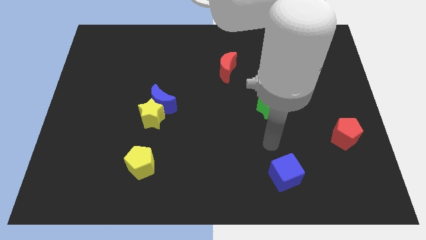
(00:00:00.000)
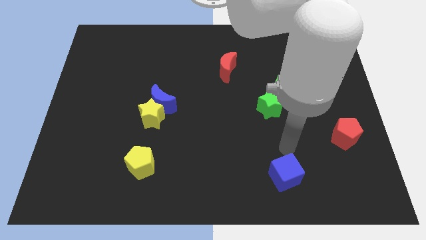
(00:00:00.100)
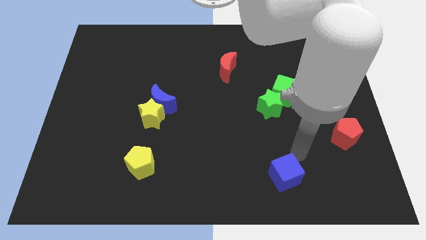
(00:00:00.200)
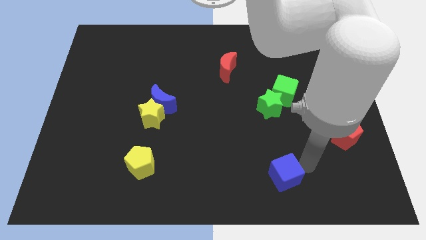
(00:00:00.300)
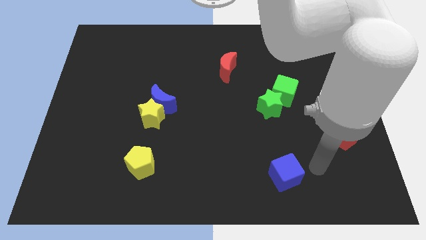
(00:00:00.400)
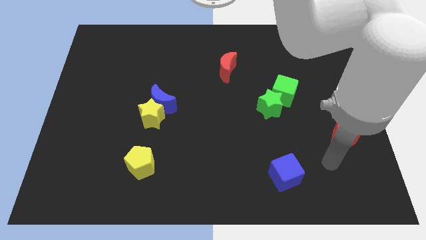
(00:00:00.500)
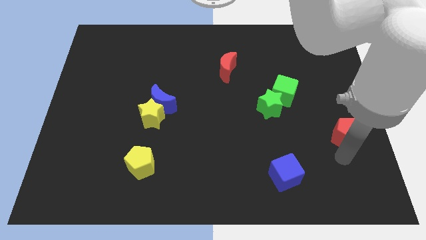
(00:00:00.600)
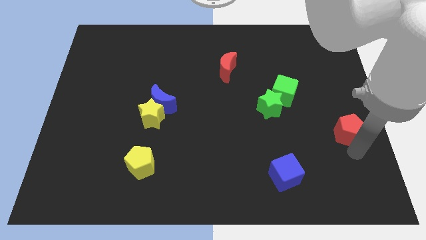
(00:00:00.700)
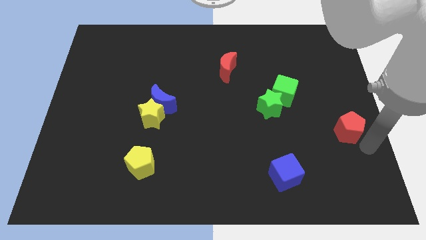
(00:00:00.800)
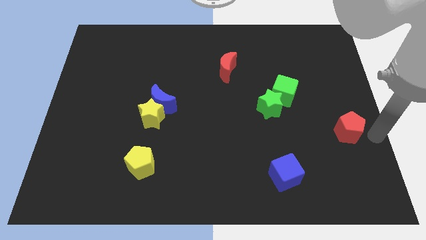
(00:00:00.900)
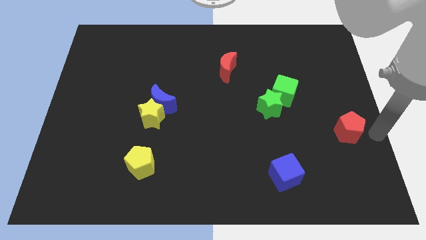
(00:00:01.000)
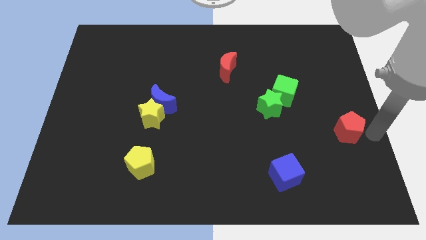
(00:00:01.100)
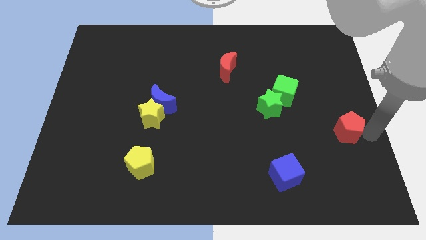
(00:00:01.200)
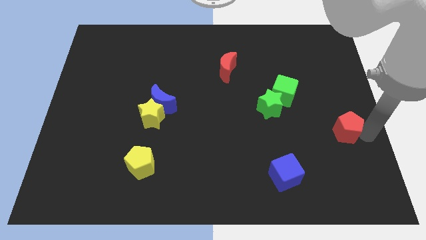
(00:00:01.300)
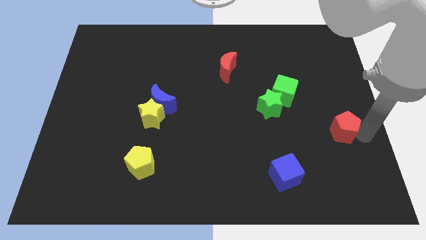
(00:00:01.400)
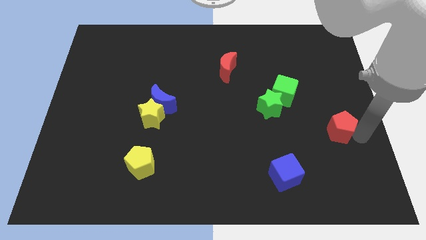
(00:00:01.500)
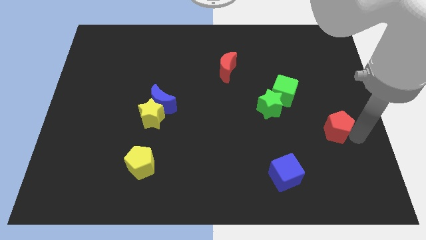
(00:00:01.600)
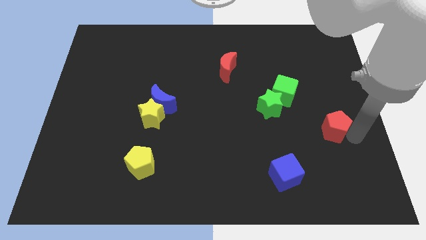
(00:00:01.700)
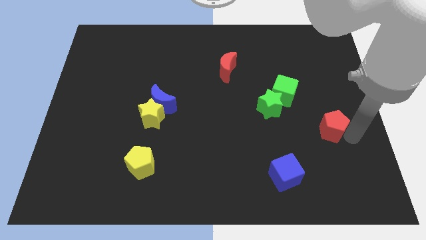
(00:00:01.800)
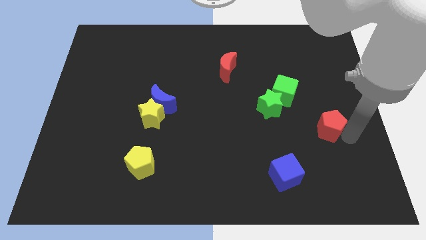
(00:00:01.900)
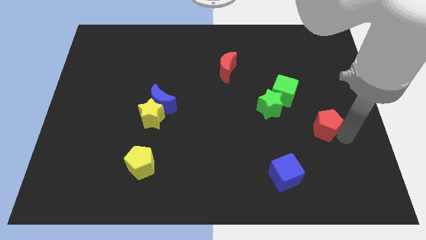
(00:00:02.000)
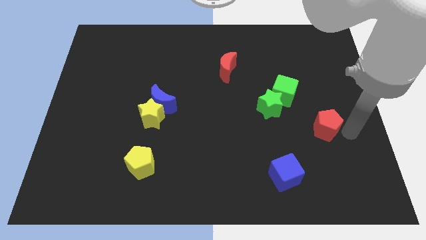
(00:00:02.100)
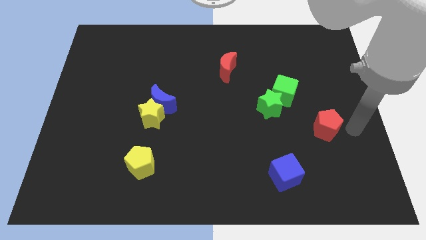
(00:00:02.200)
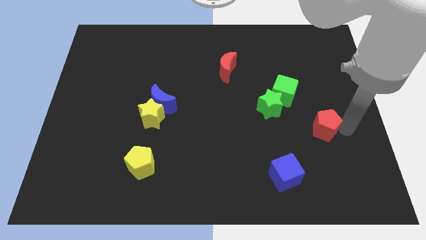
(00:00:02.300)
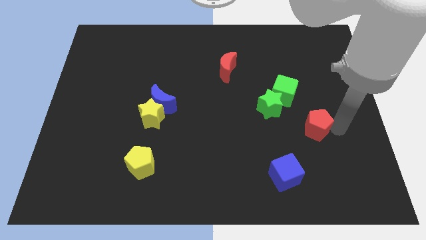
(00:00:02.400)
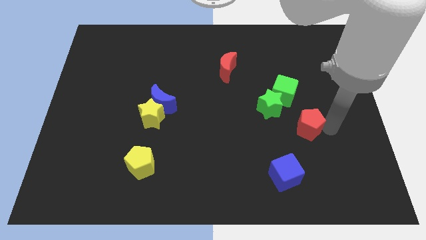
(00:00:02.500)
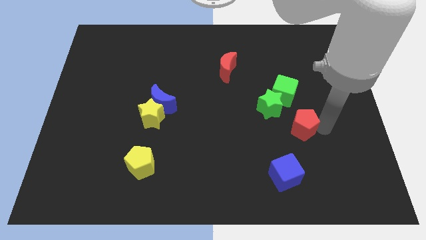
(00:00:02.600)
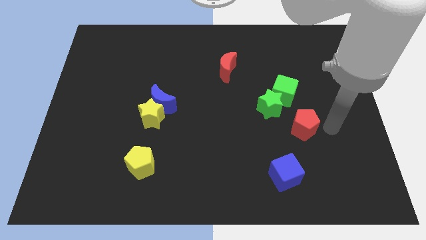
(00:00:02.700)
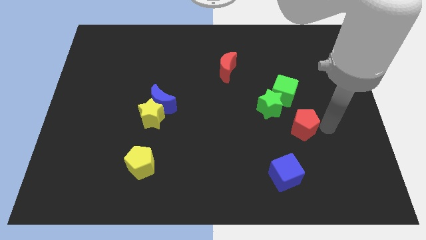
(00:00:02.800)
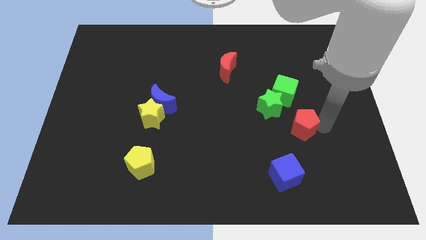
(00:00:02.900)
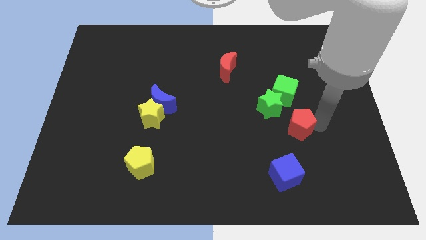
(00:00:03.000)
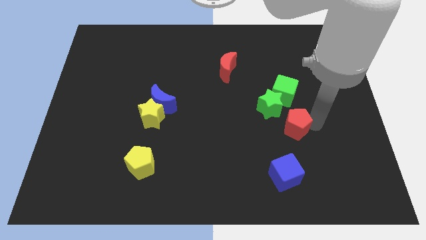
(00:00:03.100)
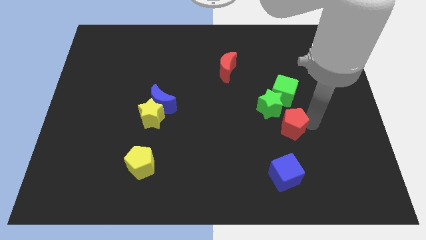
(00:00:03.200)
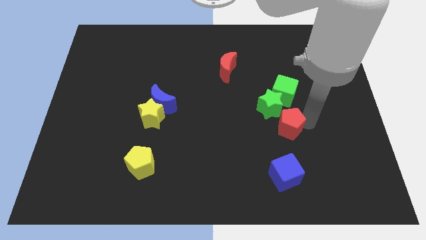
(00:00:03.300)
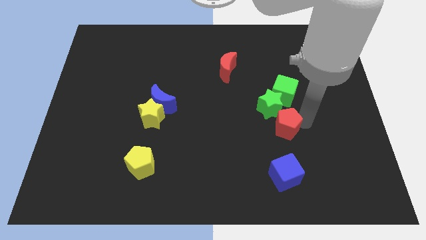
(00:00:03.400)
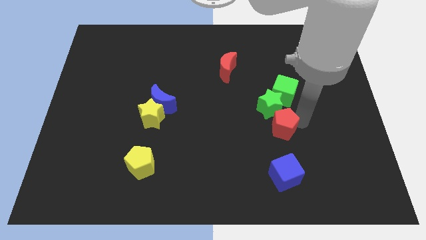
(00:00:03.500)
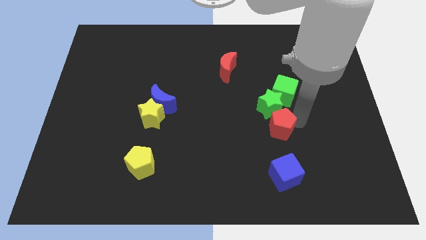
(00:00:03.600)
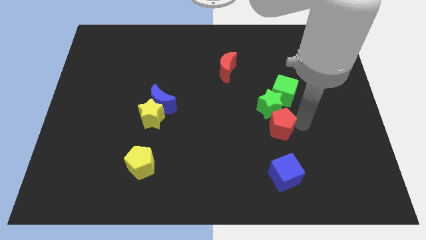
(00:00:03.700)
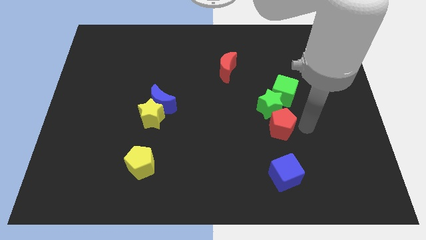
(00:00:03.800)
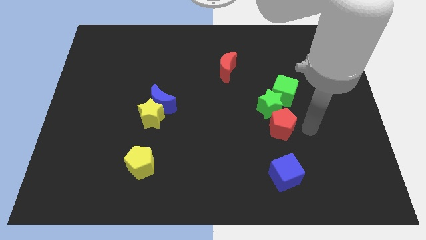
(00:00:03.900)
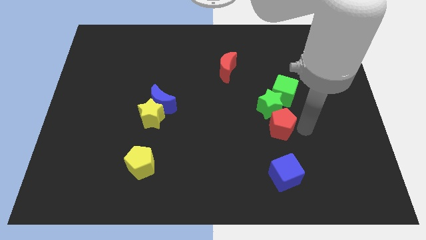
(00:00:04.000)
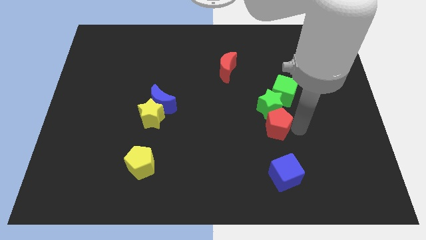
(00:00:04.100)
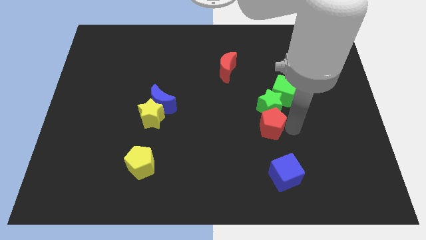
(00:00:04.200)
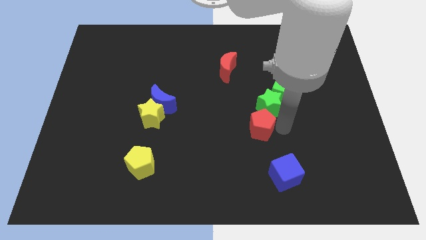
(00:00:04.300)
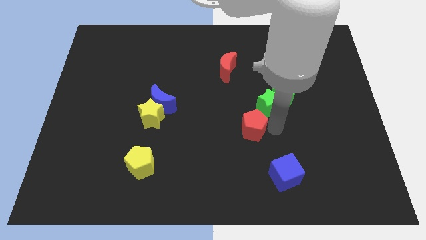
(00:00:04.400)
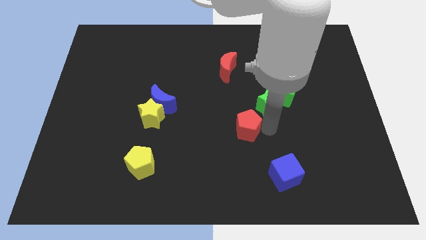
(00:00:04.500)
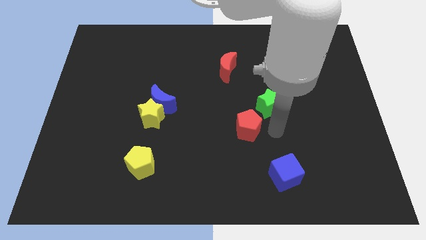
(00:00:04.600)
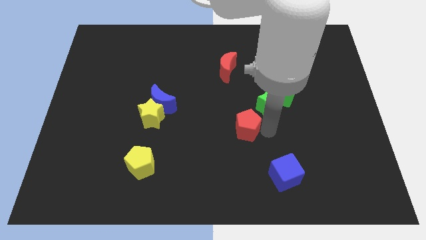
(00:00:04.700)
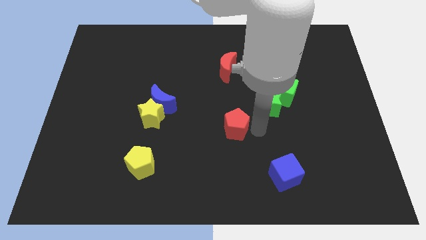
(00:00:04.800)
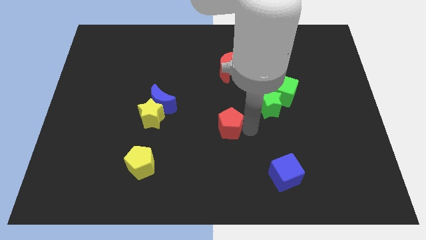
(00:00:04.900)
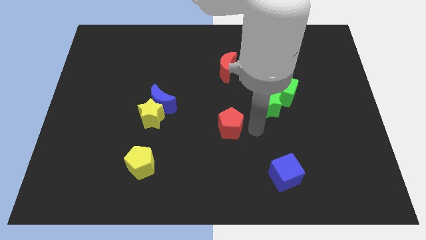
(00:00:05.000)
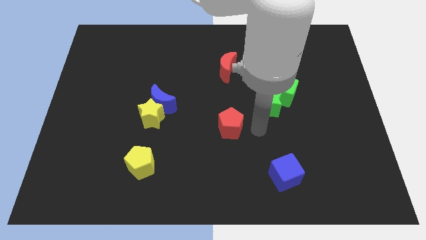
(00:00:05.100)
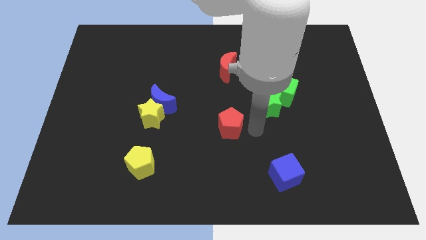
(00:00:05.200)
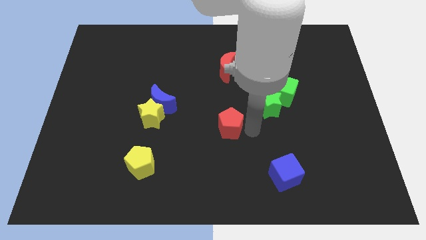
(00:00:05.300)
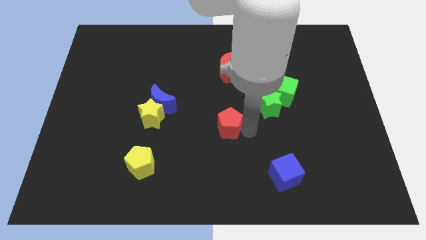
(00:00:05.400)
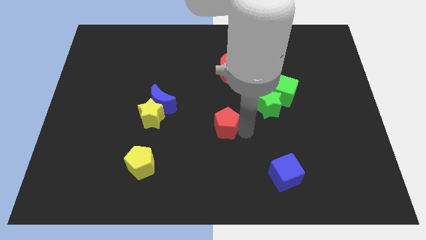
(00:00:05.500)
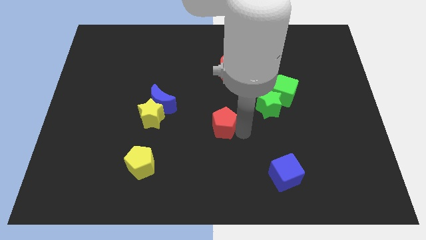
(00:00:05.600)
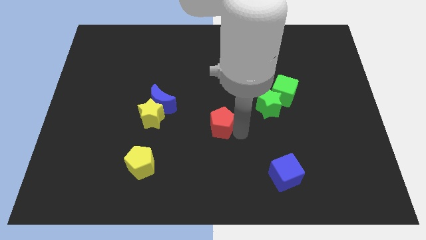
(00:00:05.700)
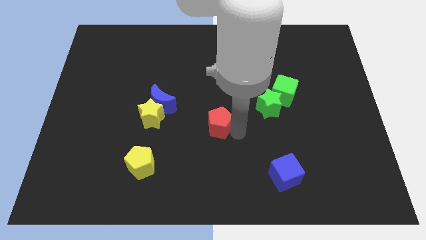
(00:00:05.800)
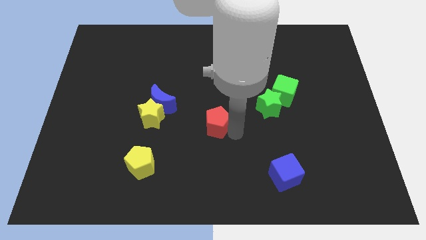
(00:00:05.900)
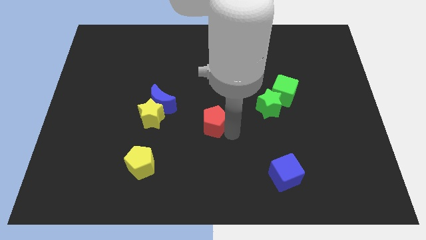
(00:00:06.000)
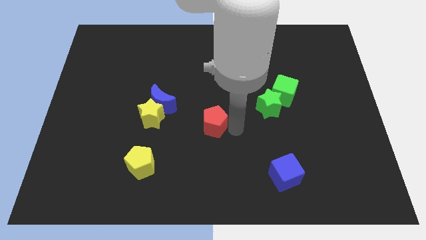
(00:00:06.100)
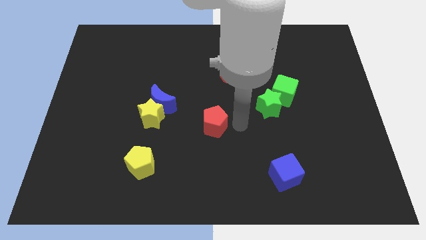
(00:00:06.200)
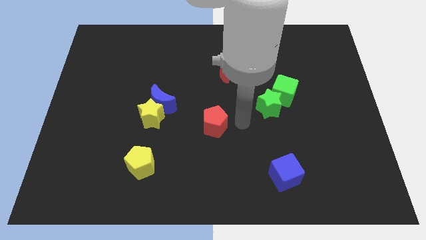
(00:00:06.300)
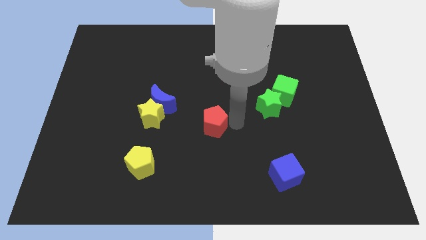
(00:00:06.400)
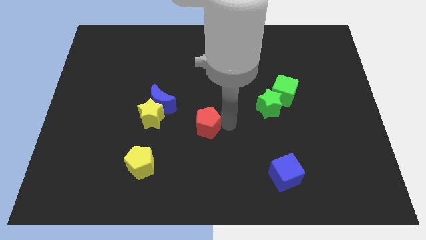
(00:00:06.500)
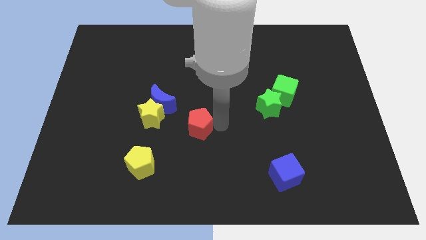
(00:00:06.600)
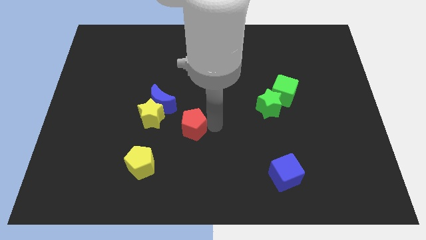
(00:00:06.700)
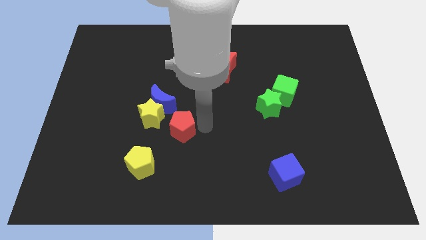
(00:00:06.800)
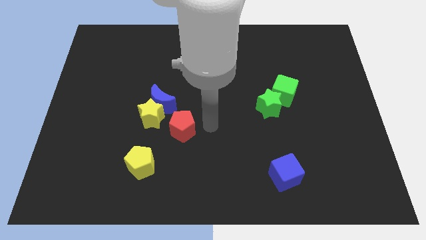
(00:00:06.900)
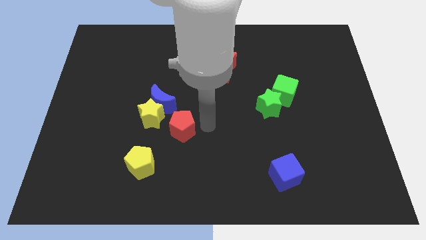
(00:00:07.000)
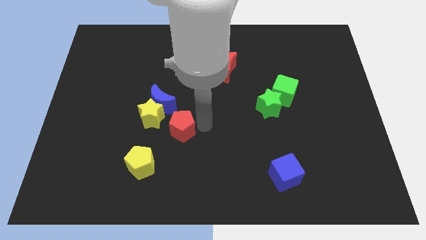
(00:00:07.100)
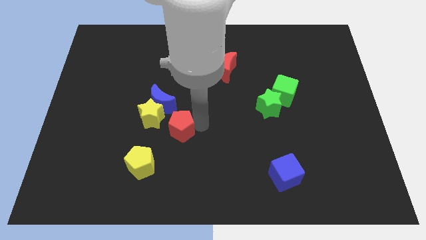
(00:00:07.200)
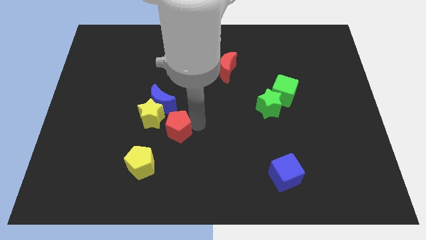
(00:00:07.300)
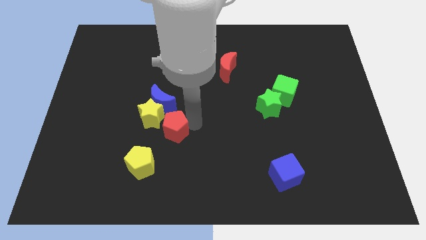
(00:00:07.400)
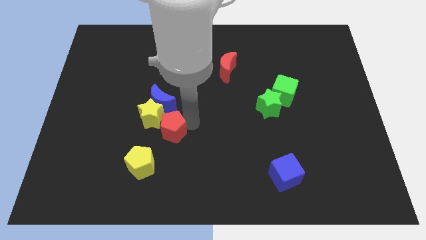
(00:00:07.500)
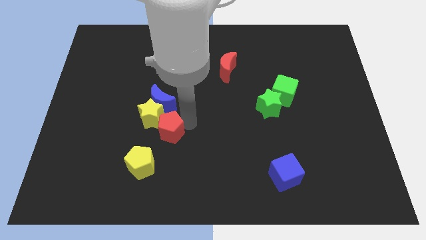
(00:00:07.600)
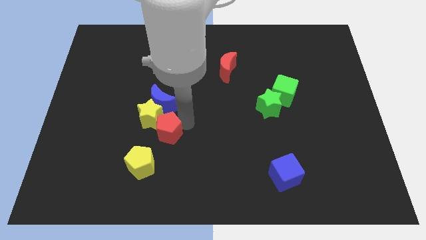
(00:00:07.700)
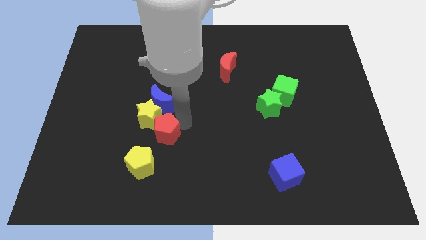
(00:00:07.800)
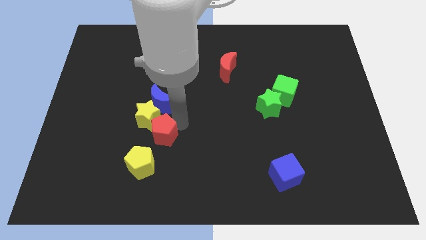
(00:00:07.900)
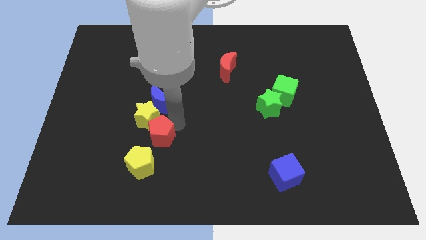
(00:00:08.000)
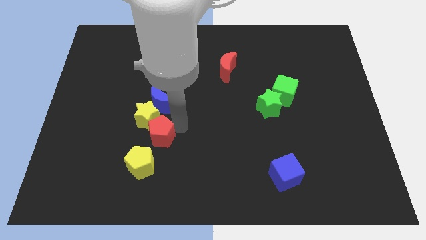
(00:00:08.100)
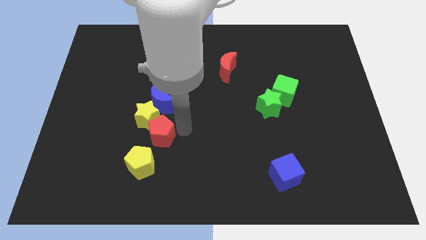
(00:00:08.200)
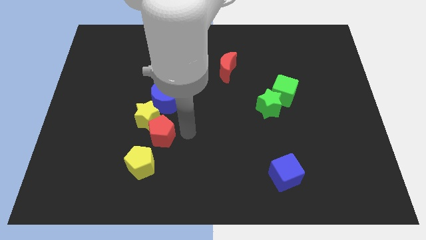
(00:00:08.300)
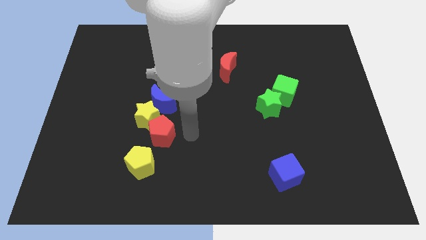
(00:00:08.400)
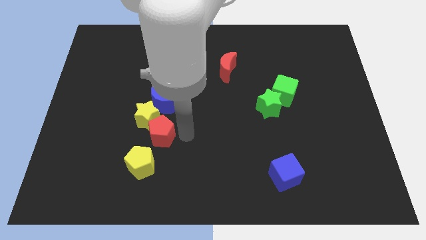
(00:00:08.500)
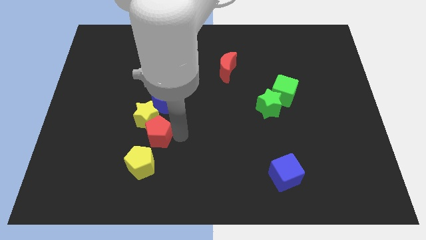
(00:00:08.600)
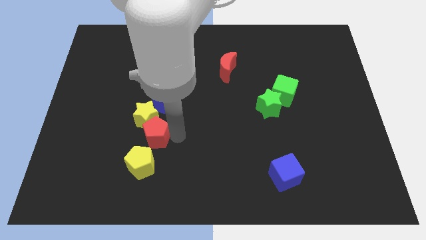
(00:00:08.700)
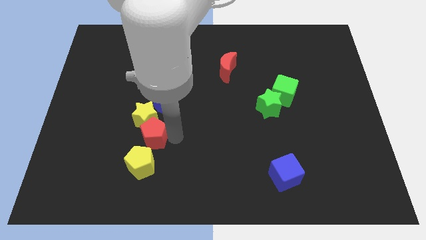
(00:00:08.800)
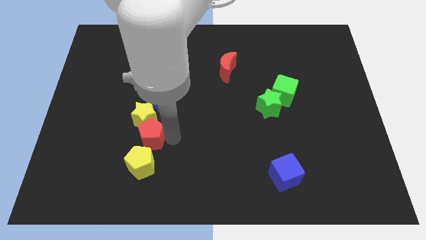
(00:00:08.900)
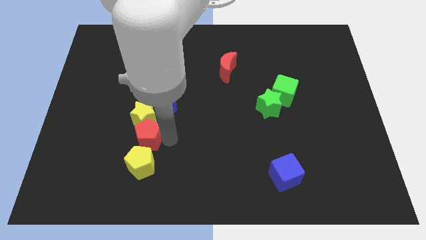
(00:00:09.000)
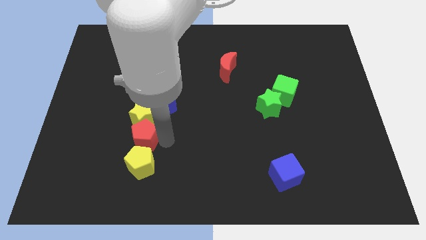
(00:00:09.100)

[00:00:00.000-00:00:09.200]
move the red pentagon to the bottom left side of the blue moon
